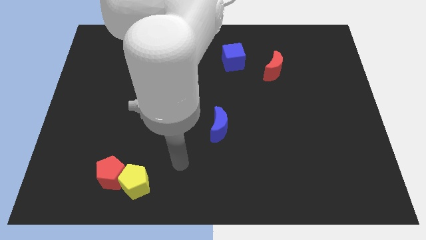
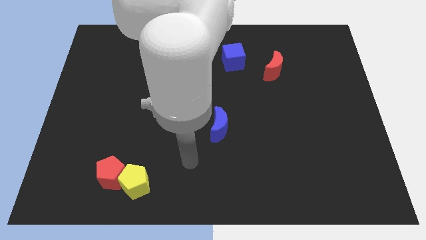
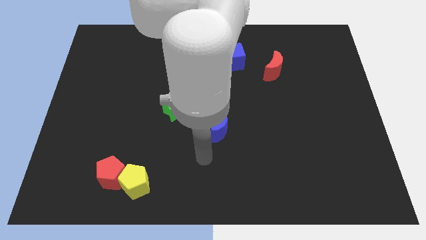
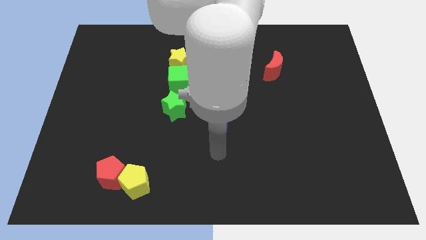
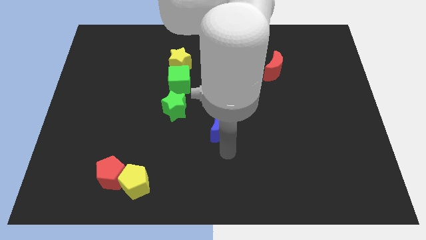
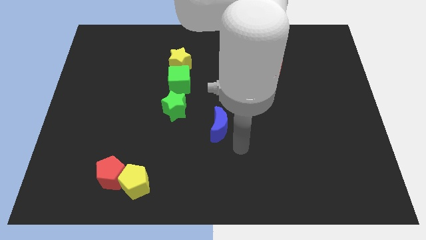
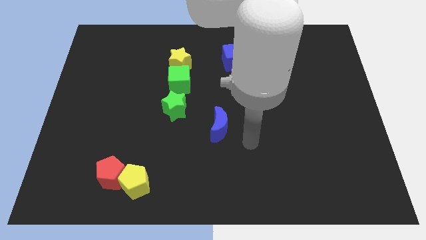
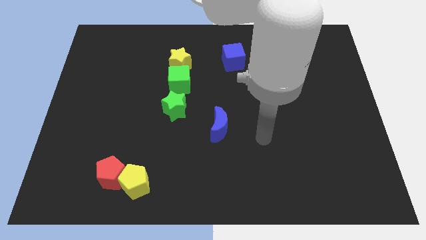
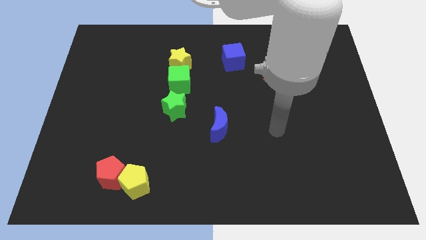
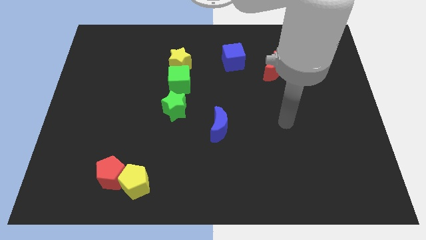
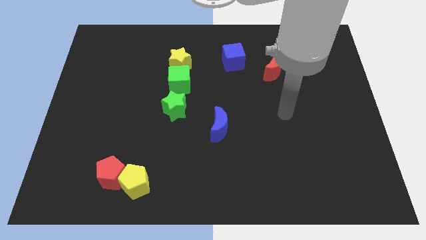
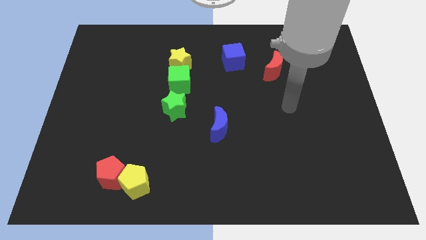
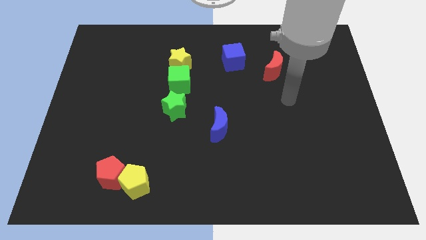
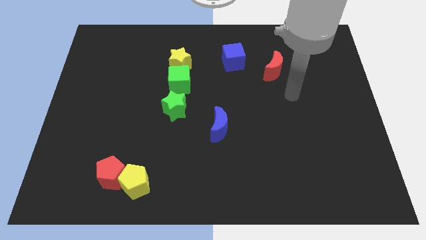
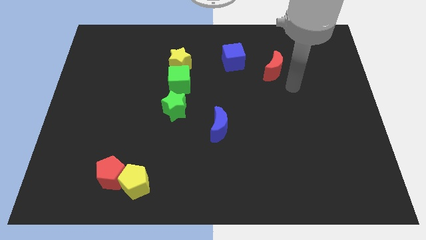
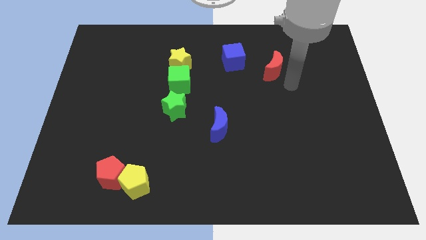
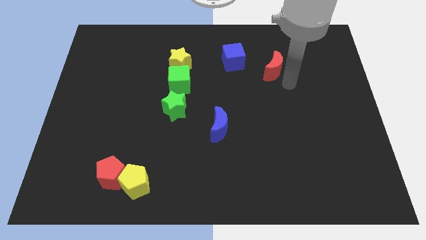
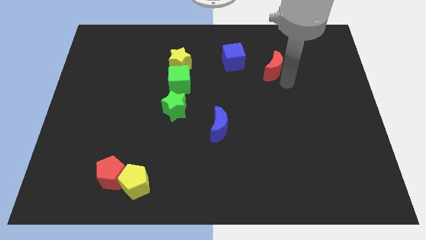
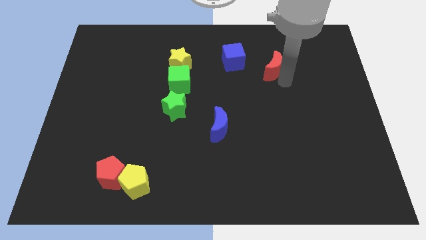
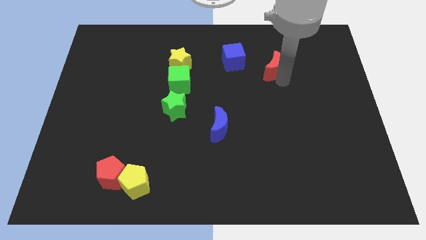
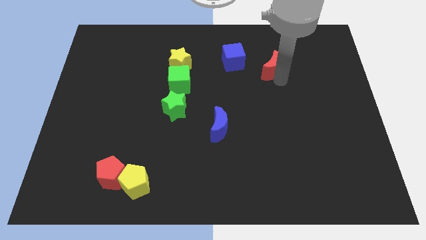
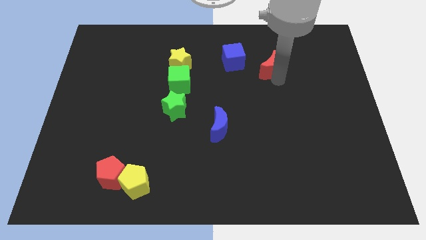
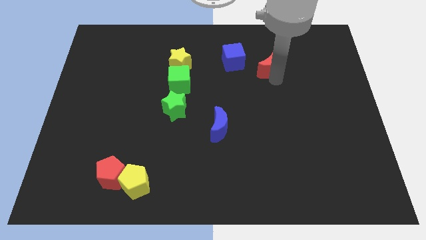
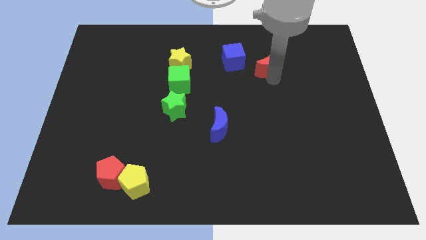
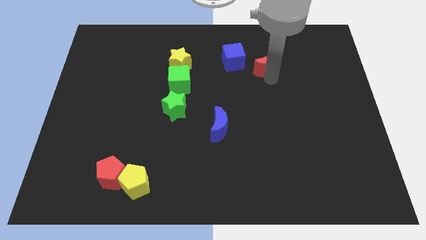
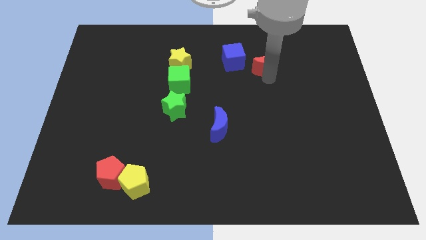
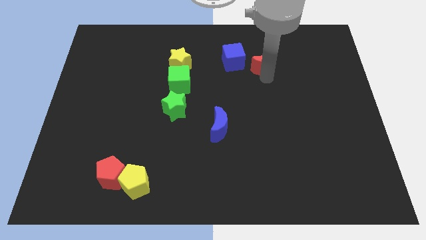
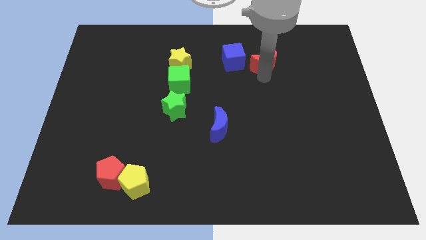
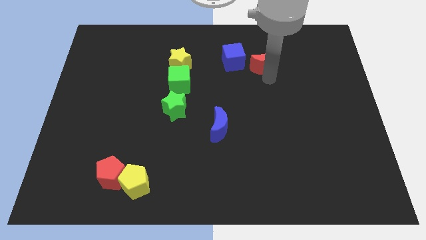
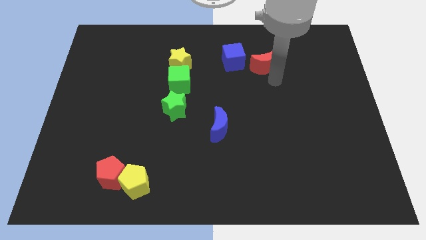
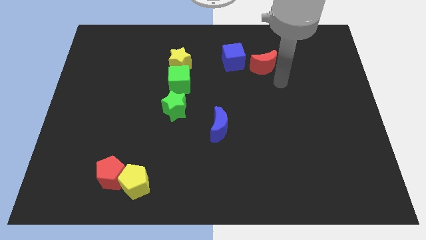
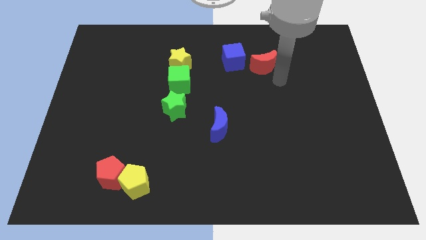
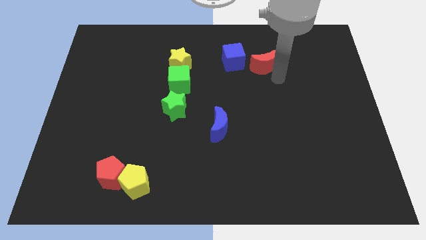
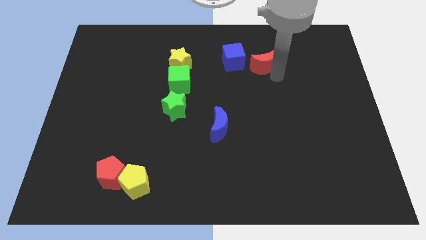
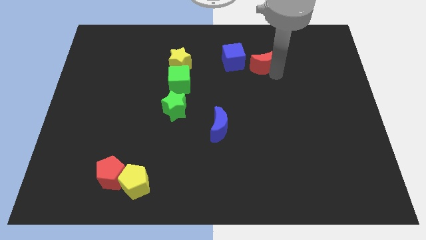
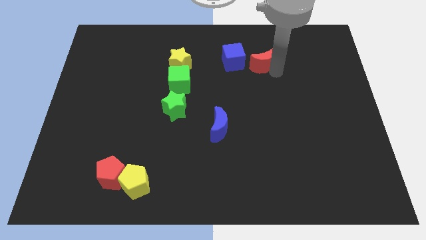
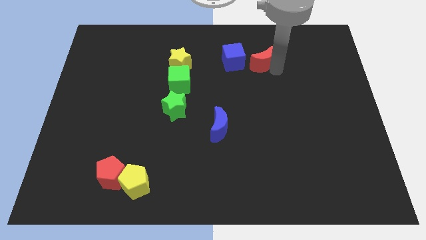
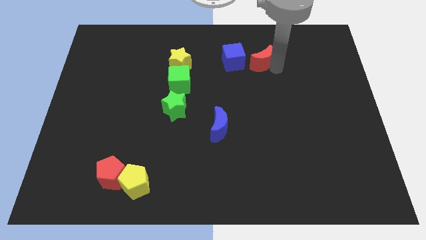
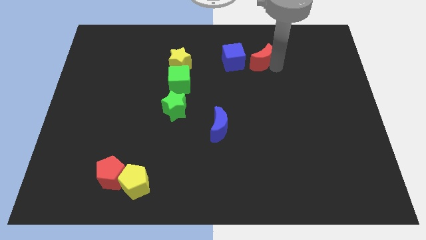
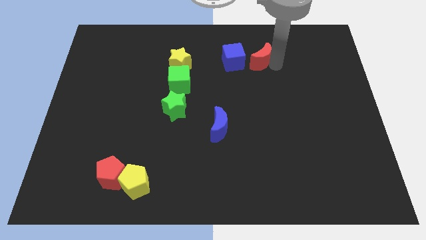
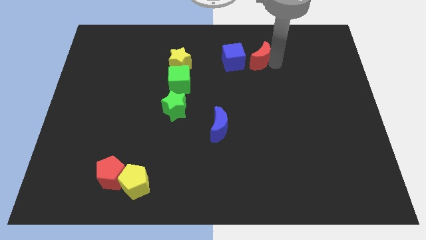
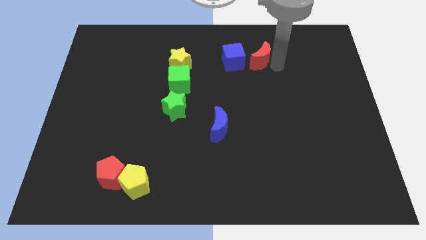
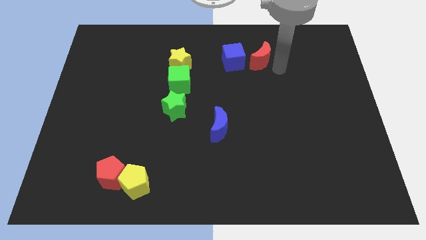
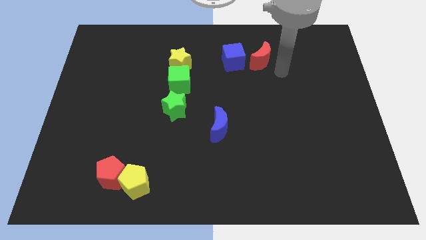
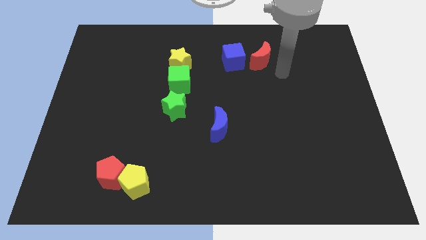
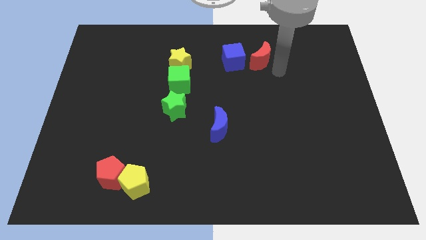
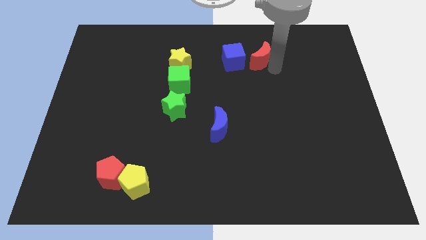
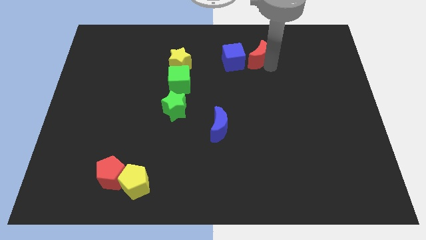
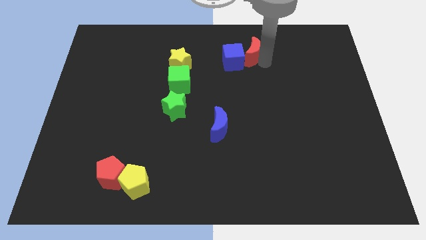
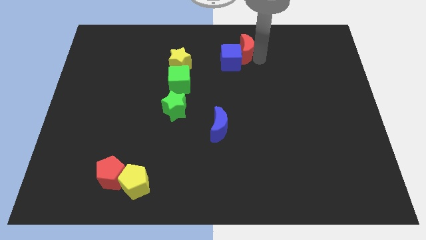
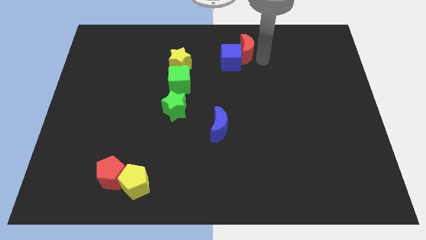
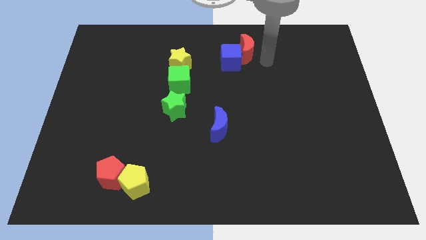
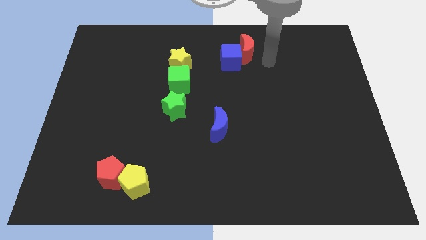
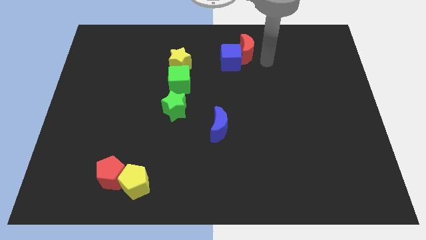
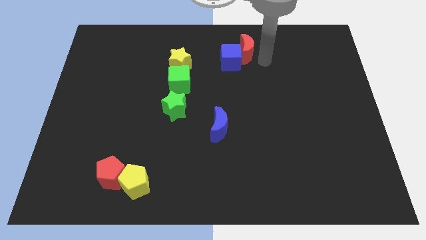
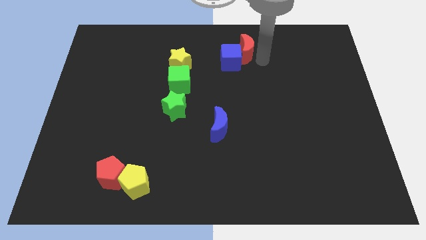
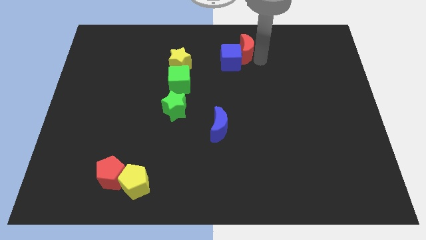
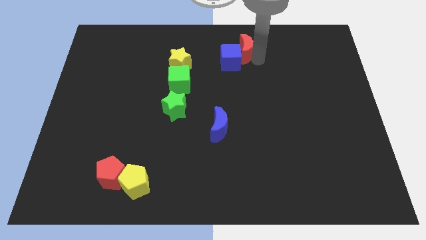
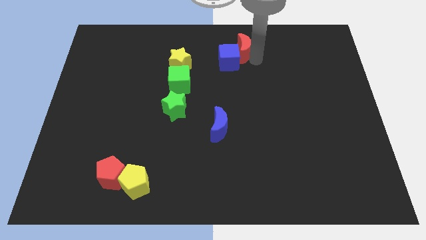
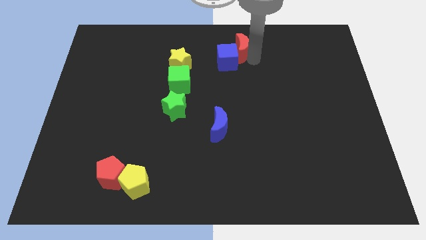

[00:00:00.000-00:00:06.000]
slide the red moon to the top

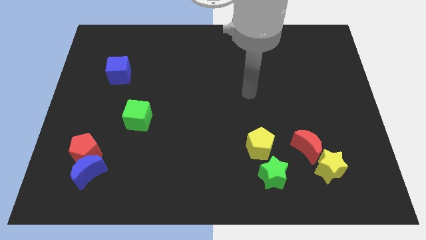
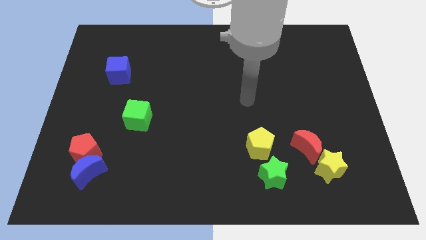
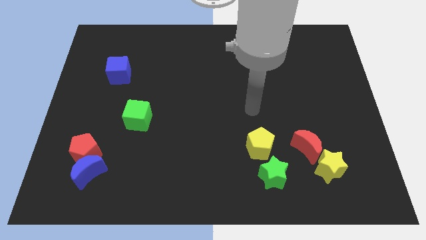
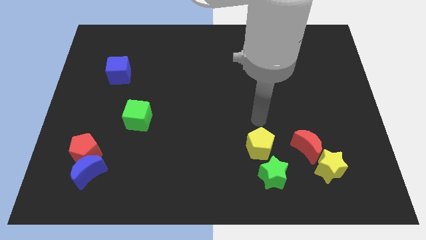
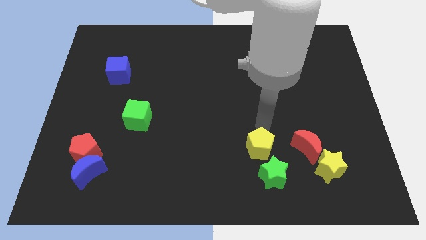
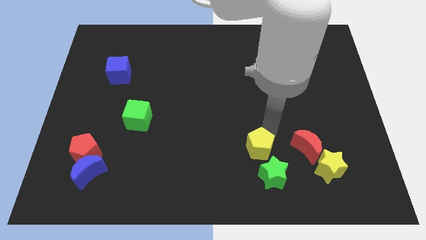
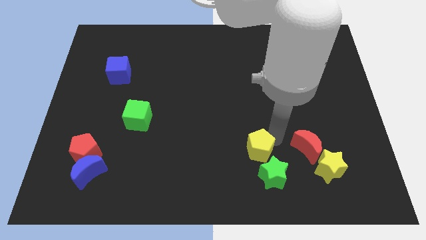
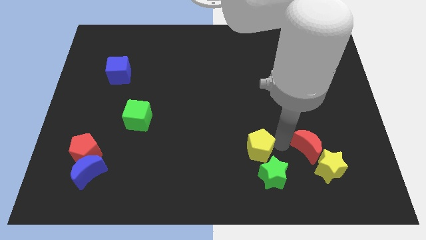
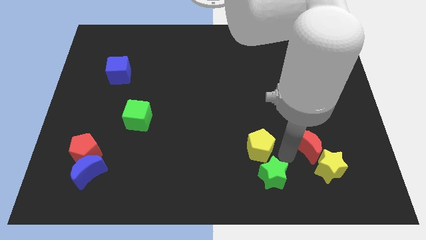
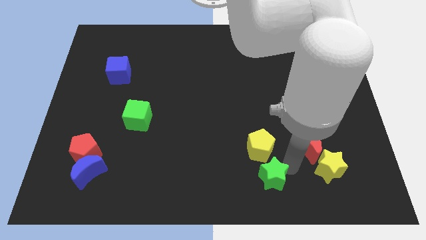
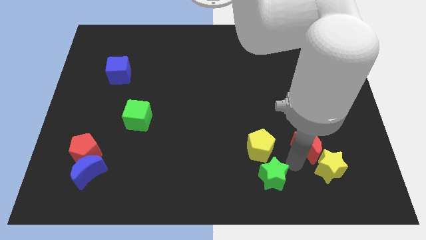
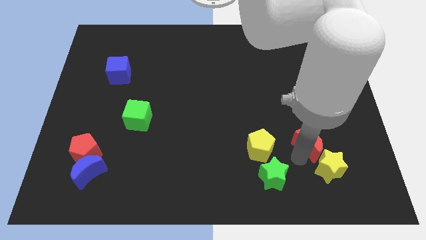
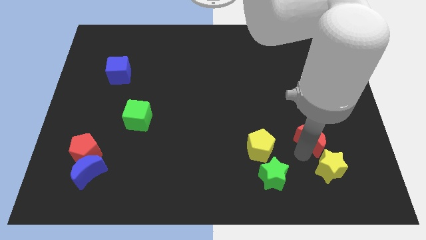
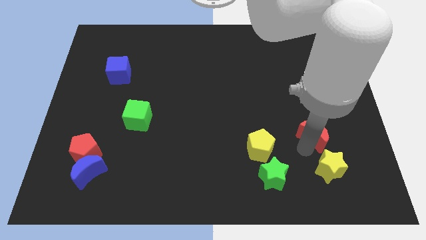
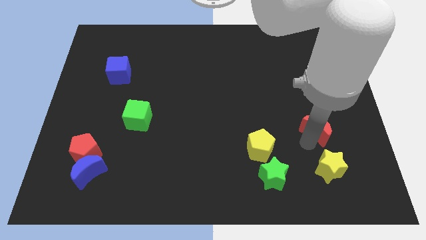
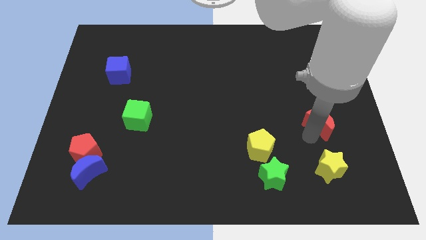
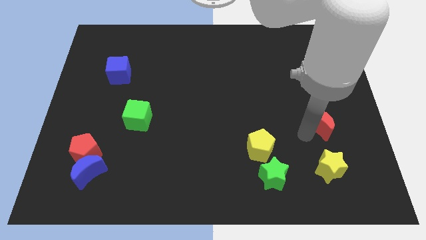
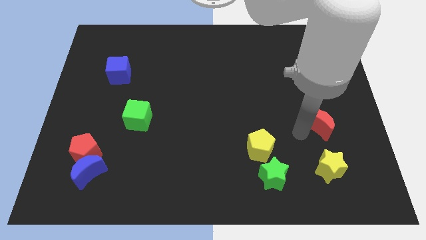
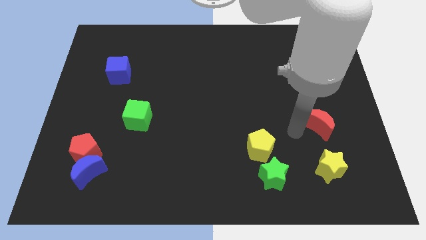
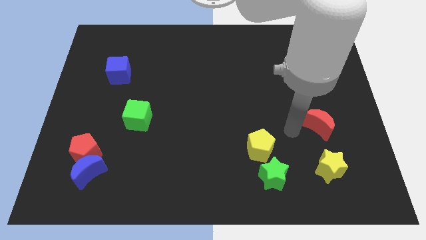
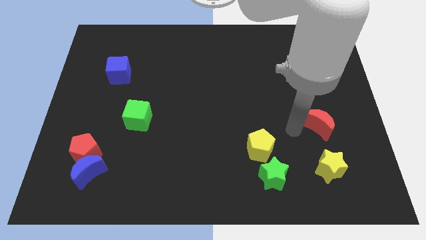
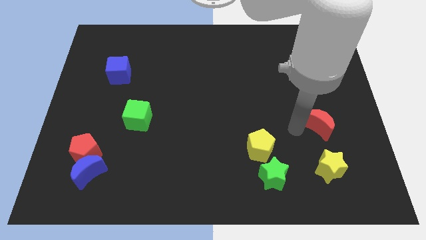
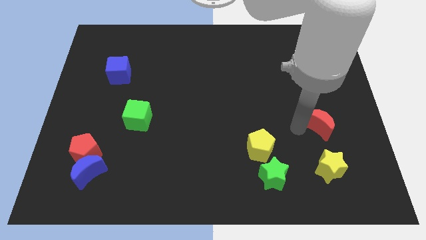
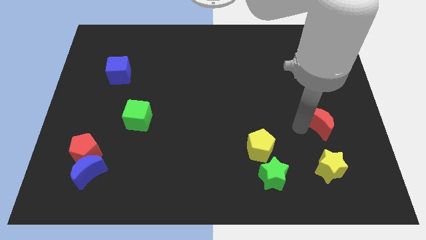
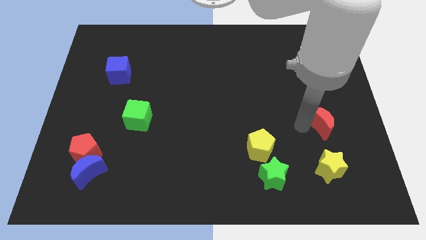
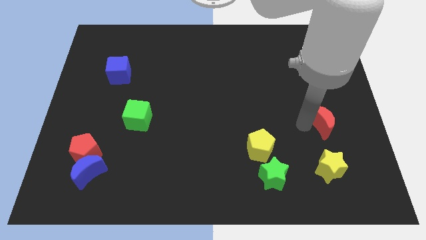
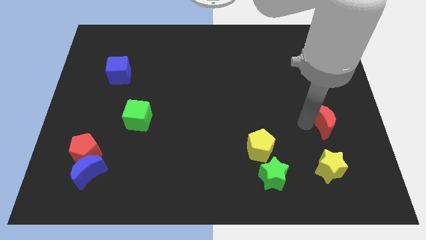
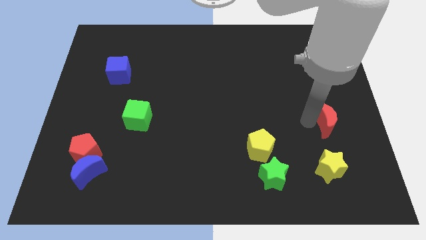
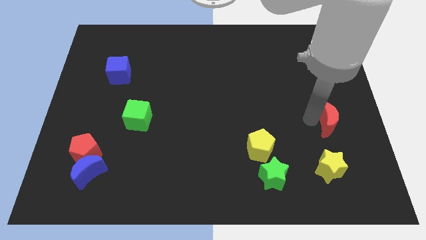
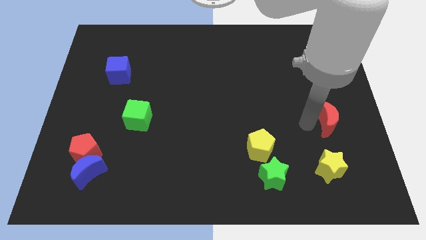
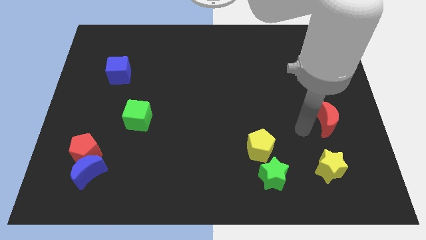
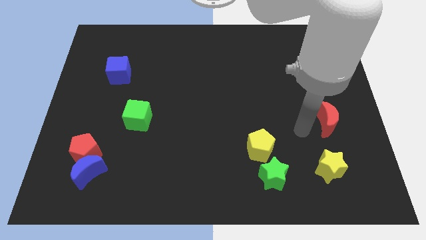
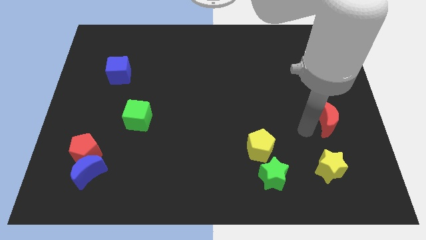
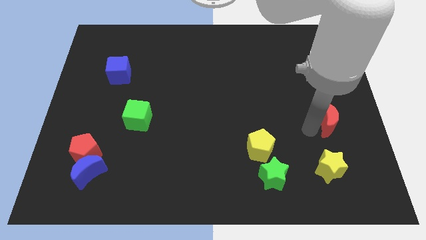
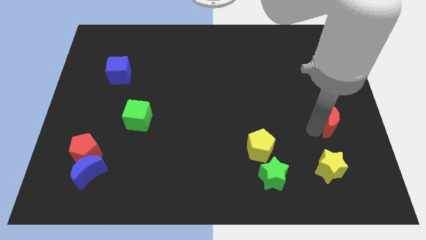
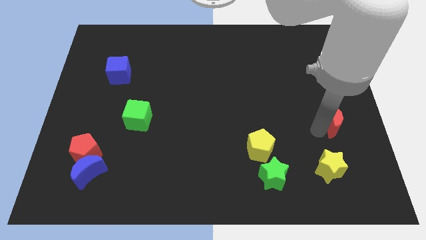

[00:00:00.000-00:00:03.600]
put the red moon to the right side of the board
